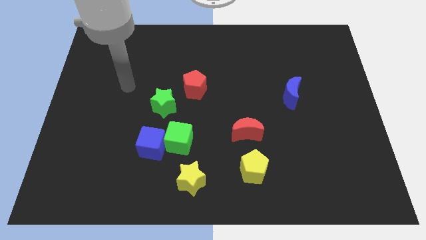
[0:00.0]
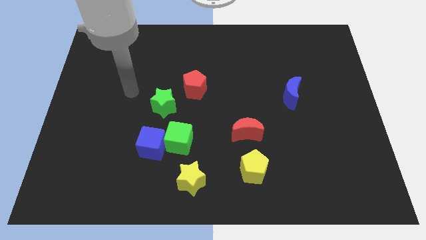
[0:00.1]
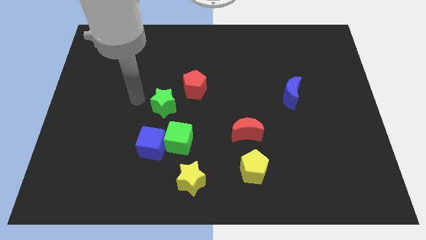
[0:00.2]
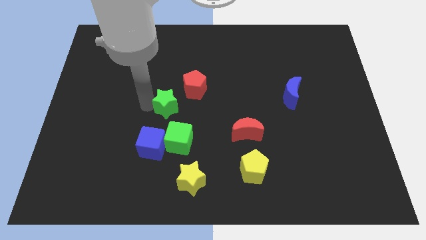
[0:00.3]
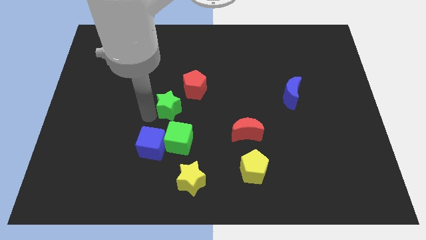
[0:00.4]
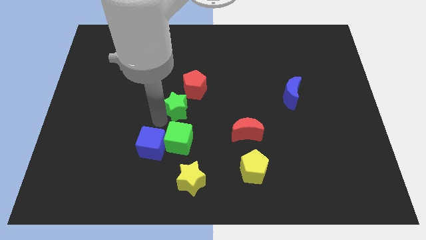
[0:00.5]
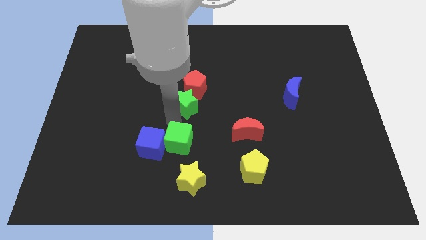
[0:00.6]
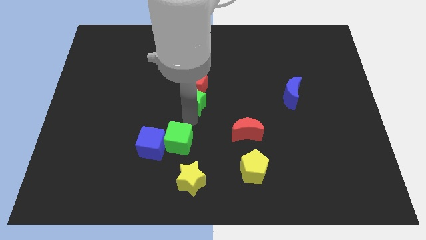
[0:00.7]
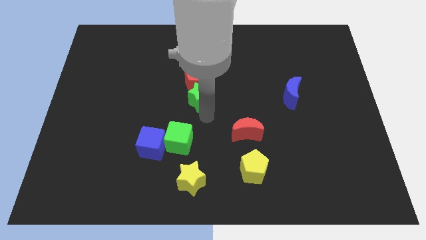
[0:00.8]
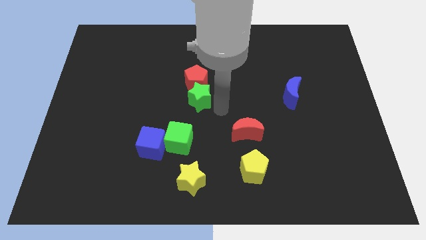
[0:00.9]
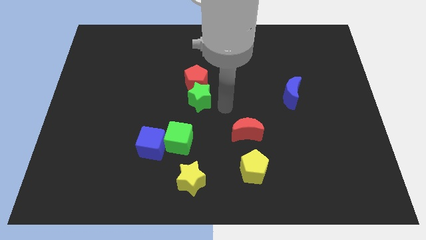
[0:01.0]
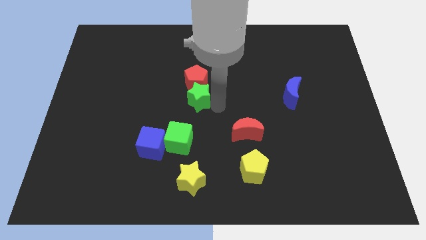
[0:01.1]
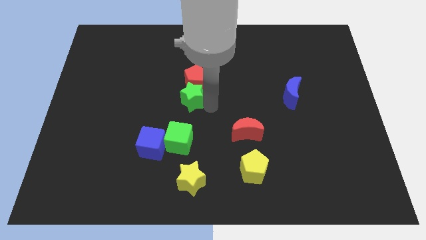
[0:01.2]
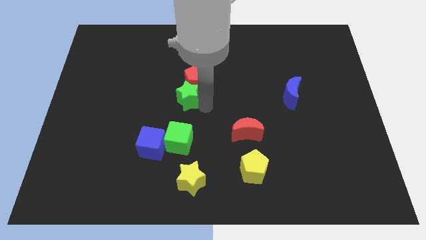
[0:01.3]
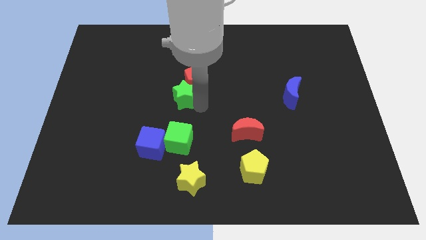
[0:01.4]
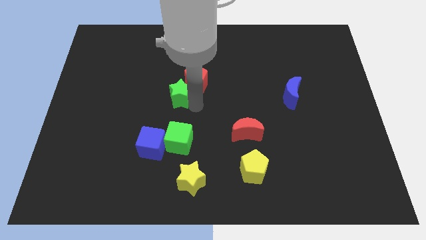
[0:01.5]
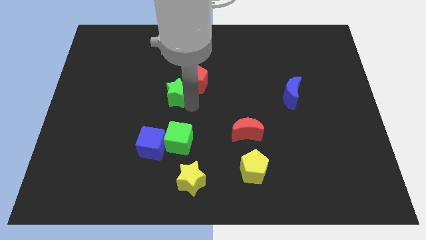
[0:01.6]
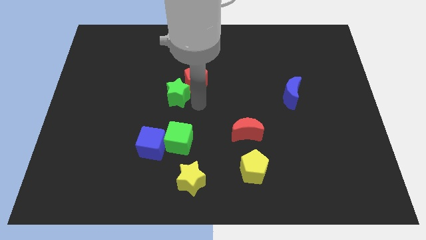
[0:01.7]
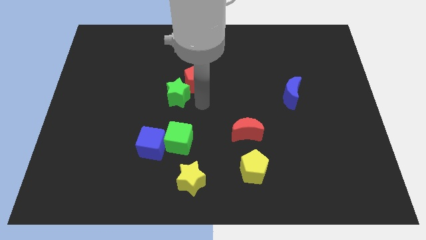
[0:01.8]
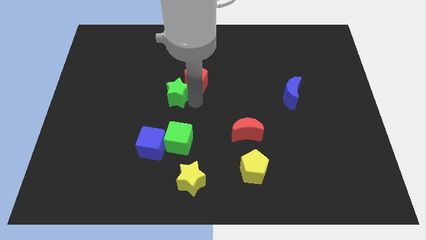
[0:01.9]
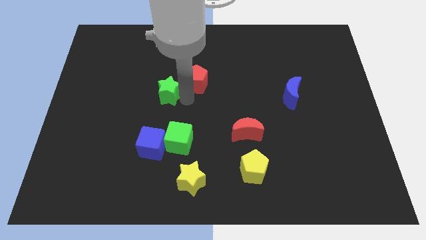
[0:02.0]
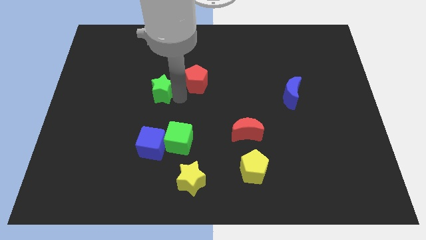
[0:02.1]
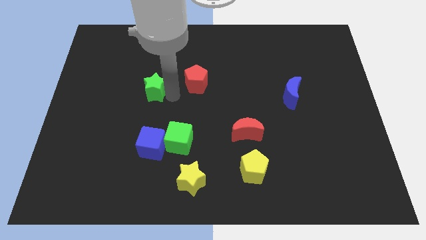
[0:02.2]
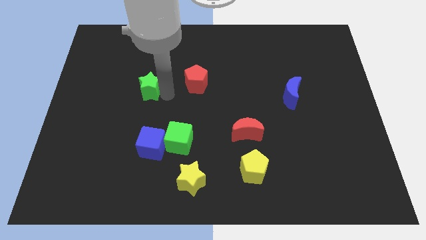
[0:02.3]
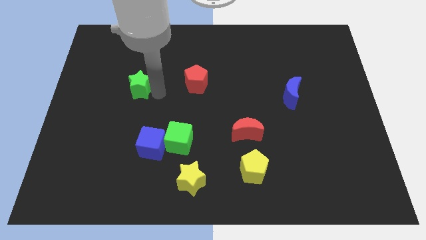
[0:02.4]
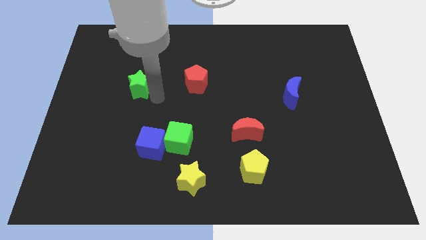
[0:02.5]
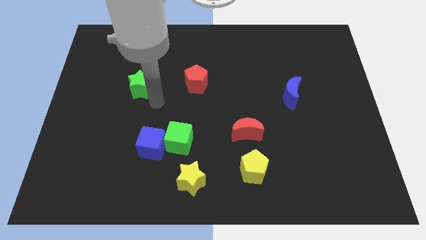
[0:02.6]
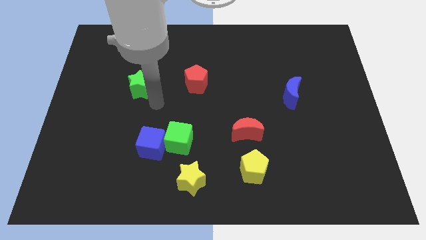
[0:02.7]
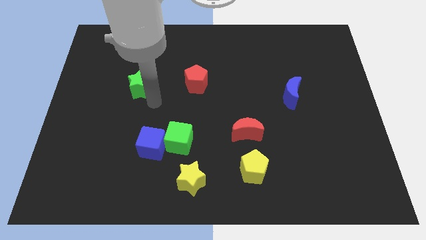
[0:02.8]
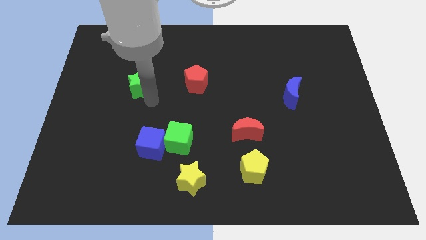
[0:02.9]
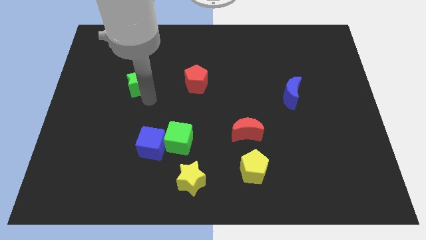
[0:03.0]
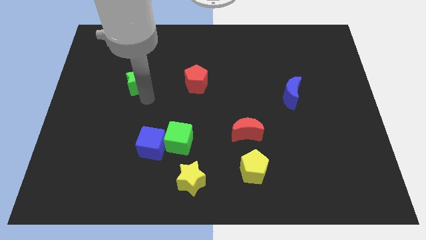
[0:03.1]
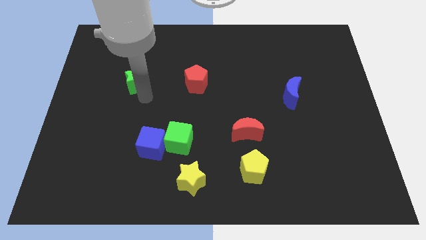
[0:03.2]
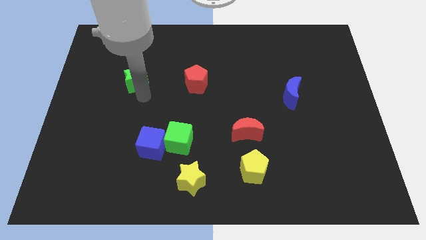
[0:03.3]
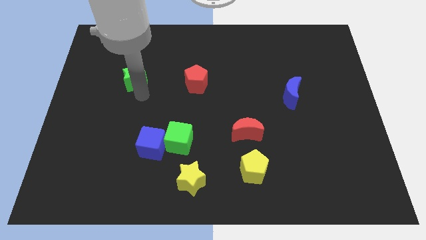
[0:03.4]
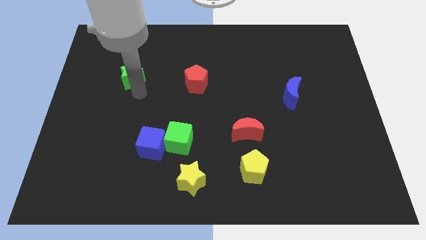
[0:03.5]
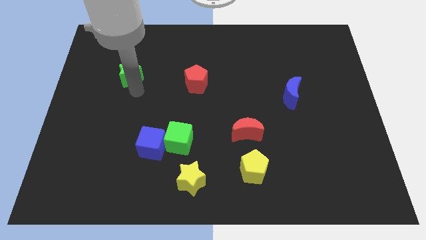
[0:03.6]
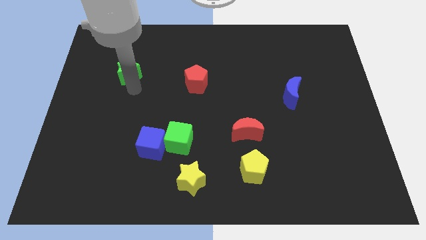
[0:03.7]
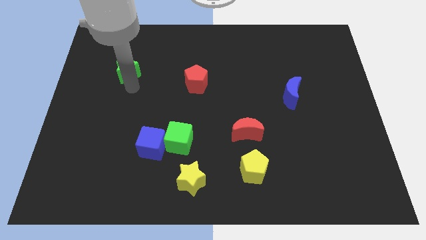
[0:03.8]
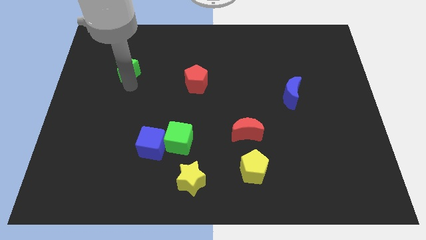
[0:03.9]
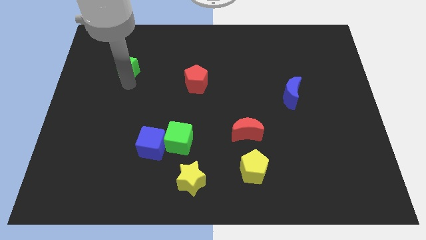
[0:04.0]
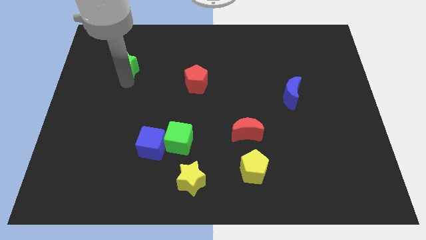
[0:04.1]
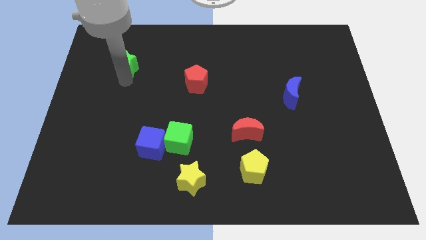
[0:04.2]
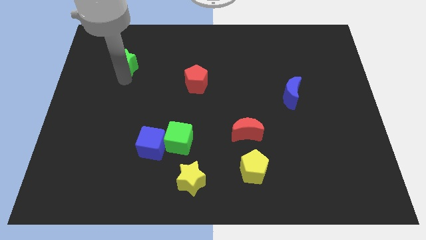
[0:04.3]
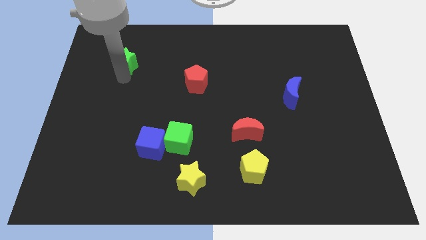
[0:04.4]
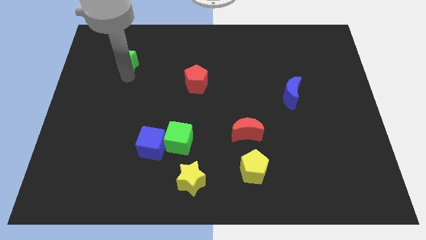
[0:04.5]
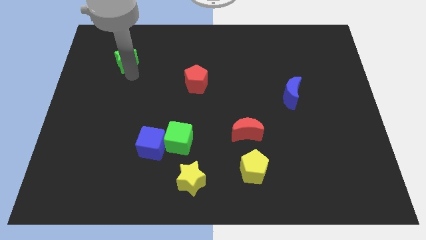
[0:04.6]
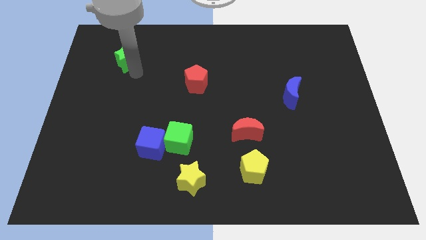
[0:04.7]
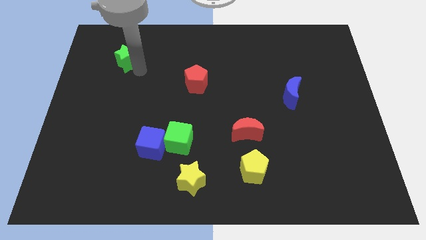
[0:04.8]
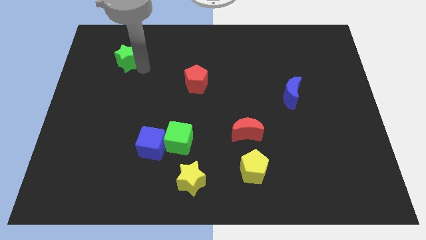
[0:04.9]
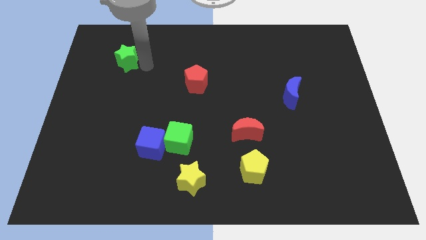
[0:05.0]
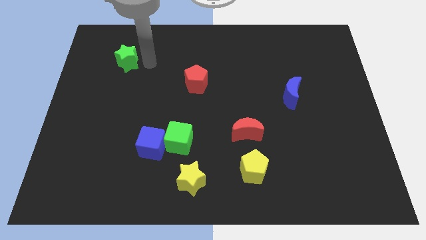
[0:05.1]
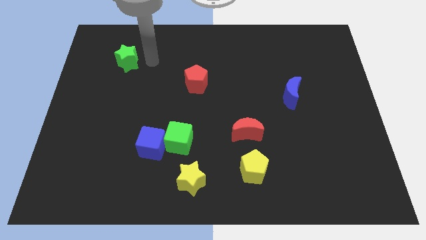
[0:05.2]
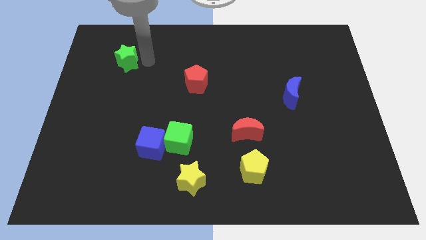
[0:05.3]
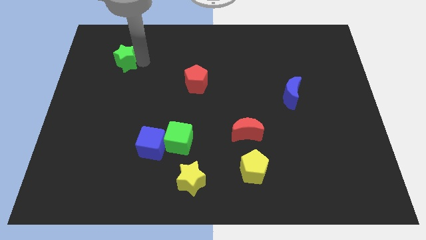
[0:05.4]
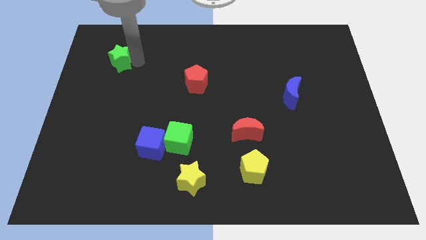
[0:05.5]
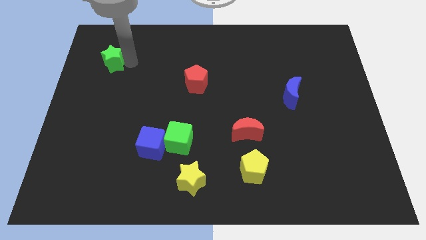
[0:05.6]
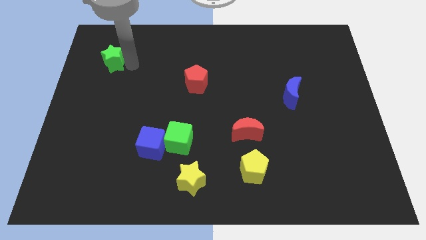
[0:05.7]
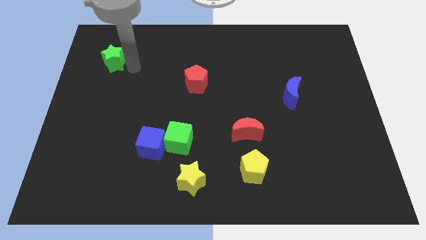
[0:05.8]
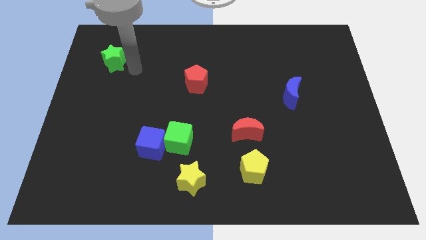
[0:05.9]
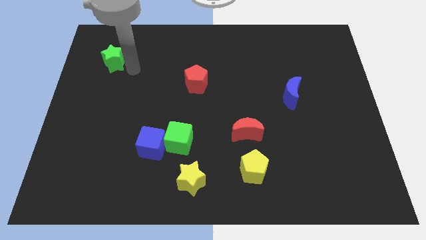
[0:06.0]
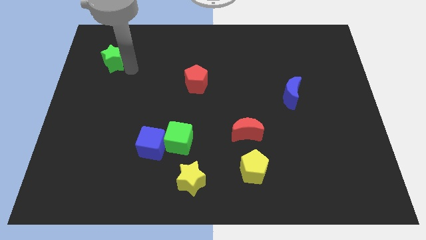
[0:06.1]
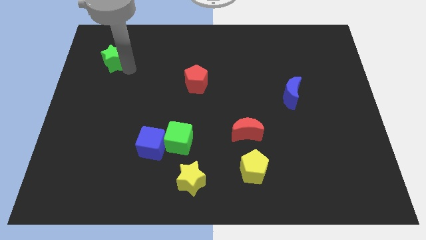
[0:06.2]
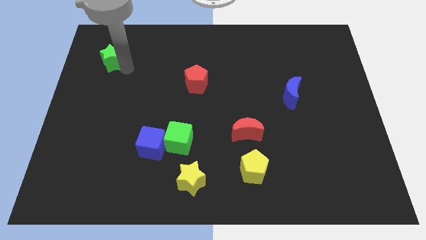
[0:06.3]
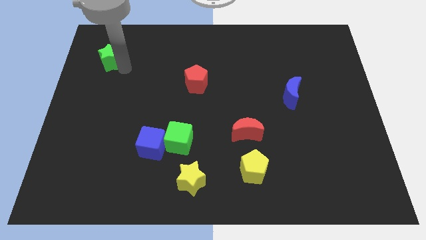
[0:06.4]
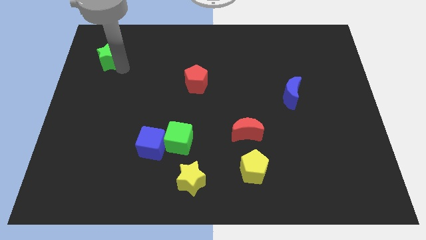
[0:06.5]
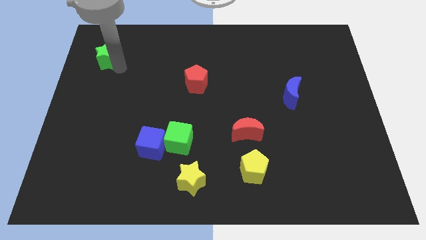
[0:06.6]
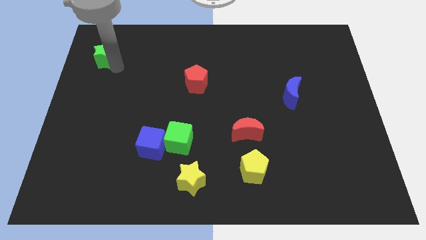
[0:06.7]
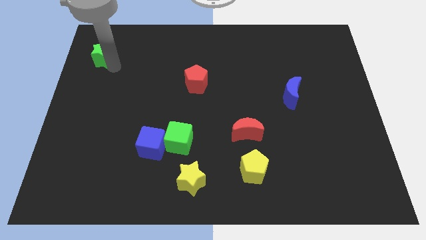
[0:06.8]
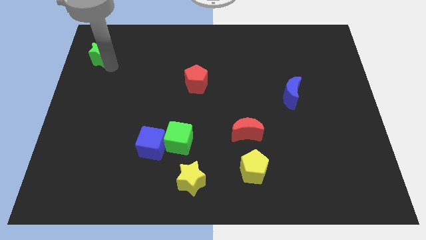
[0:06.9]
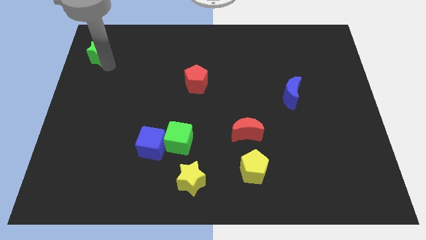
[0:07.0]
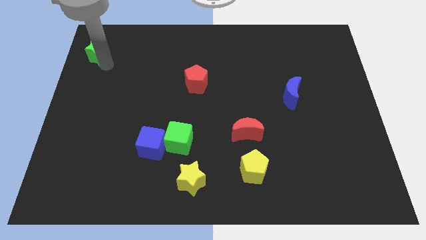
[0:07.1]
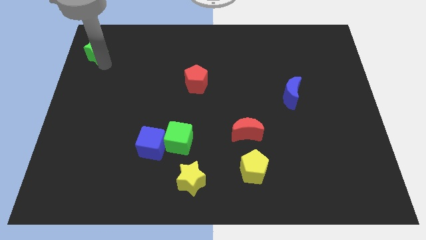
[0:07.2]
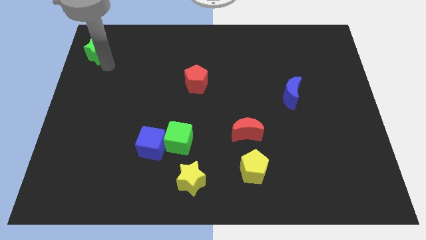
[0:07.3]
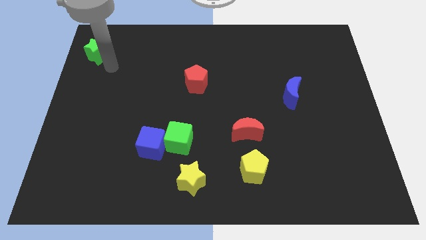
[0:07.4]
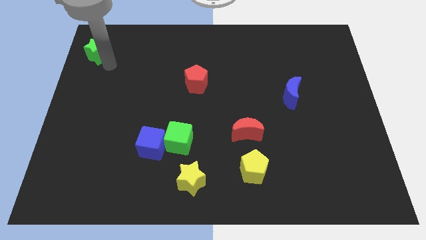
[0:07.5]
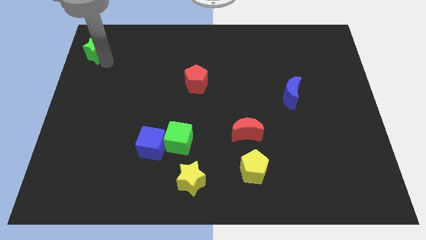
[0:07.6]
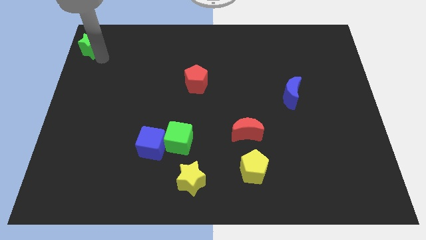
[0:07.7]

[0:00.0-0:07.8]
slide the green star to the top left of the board
